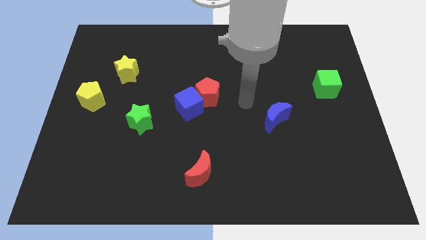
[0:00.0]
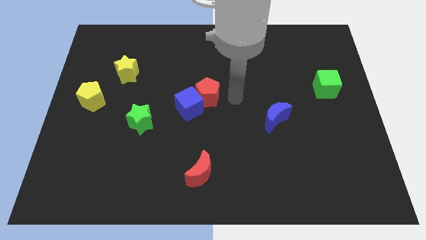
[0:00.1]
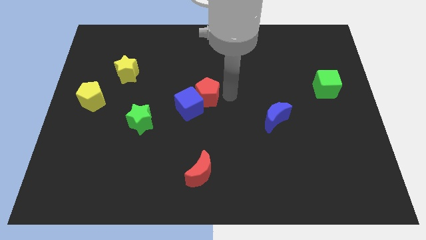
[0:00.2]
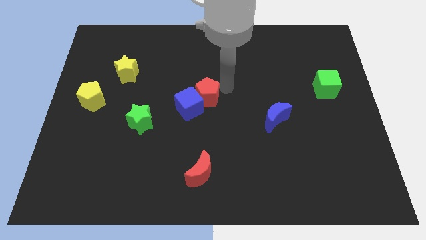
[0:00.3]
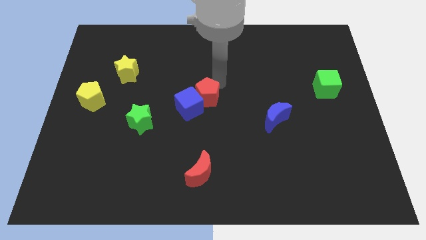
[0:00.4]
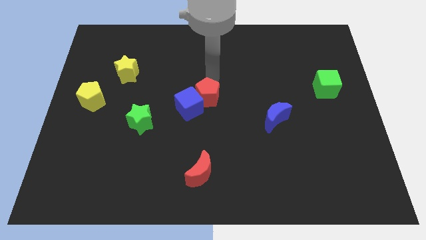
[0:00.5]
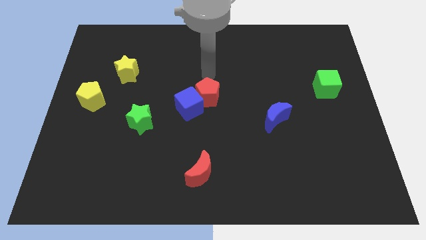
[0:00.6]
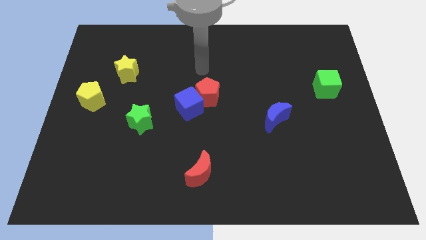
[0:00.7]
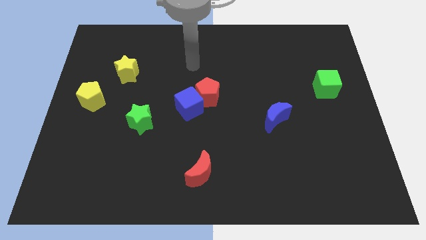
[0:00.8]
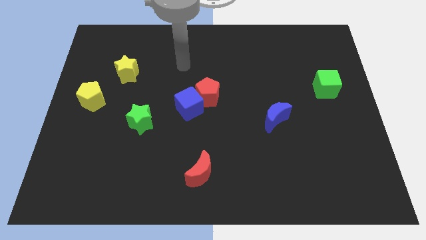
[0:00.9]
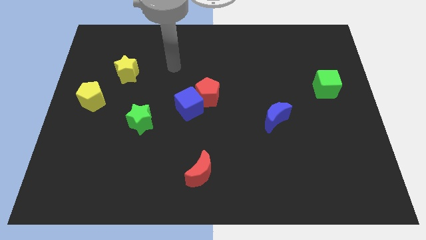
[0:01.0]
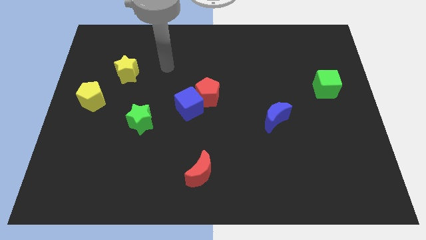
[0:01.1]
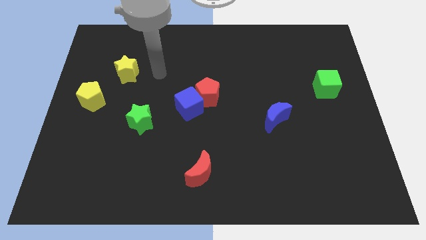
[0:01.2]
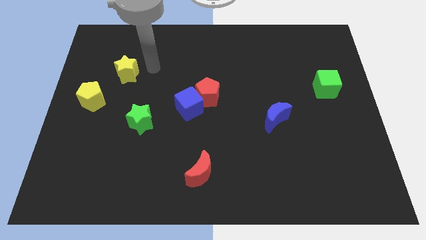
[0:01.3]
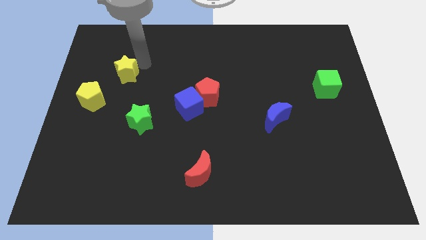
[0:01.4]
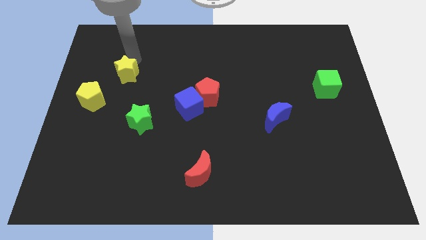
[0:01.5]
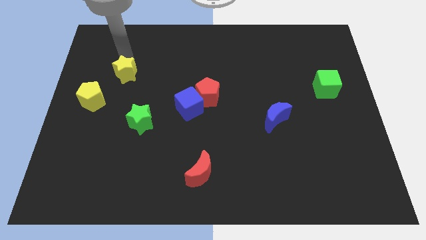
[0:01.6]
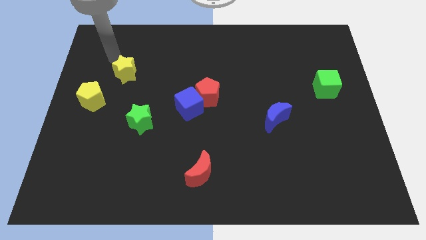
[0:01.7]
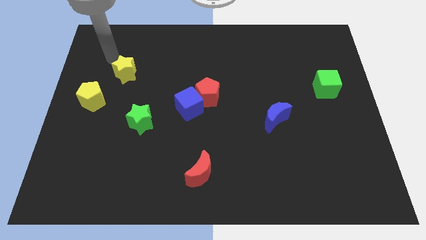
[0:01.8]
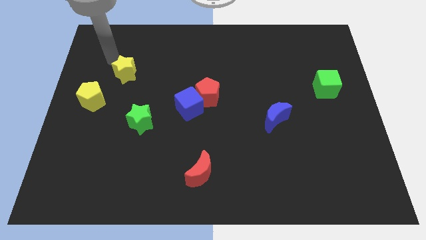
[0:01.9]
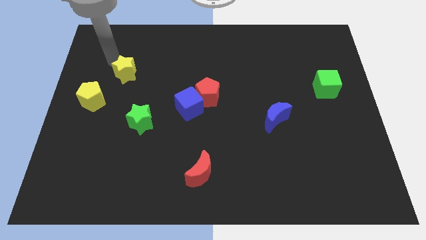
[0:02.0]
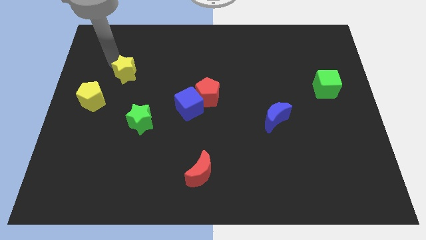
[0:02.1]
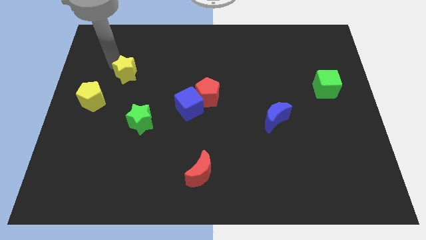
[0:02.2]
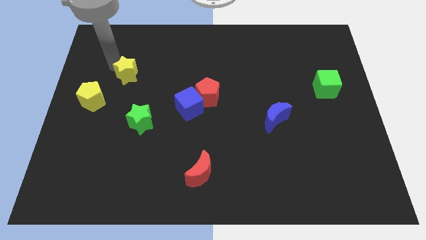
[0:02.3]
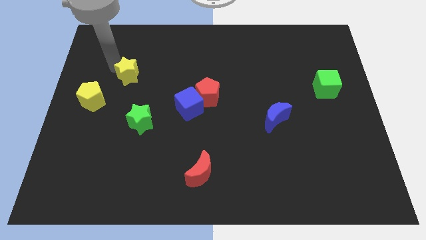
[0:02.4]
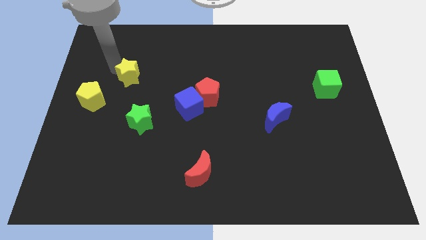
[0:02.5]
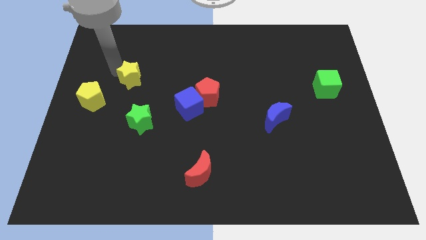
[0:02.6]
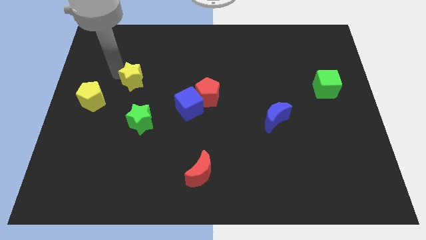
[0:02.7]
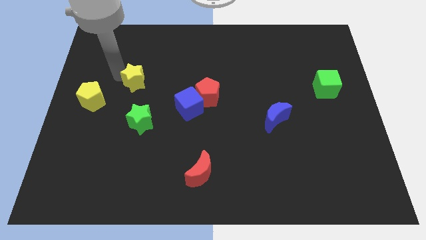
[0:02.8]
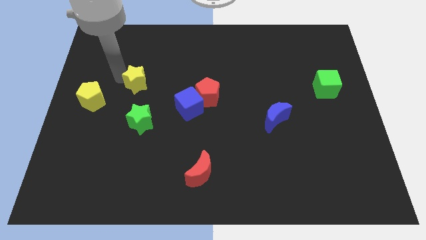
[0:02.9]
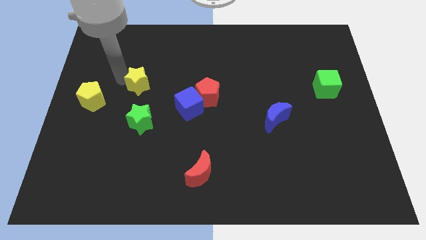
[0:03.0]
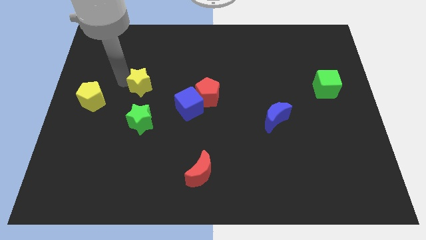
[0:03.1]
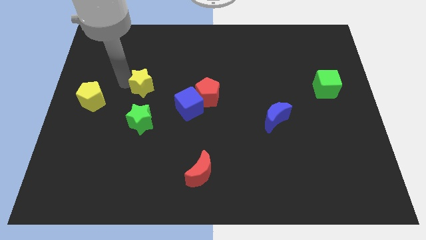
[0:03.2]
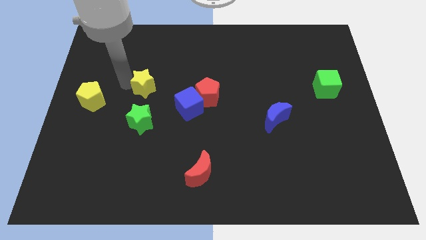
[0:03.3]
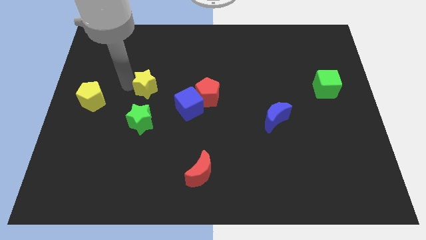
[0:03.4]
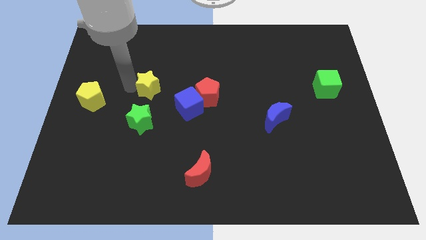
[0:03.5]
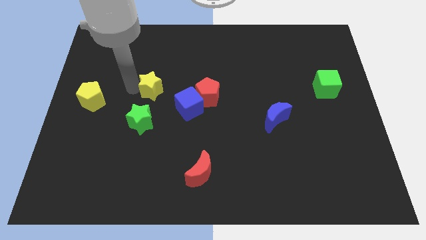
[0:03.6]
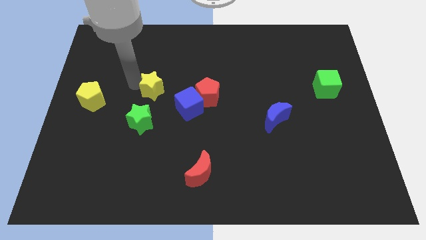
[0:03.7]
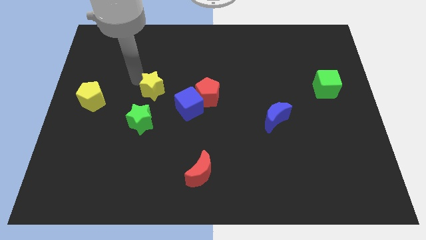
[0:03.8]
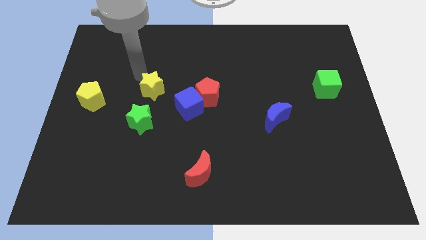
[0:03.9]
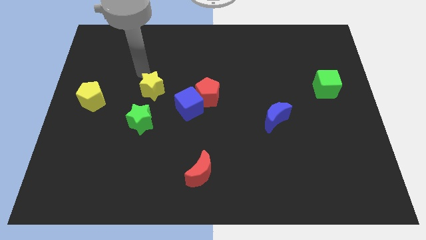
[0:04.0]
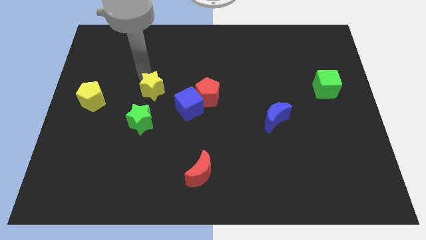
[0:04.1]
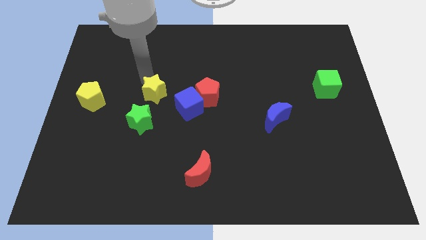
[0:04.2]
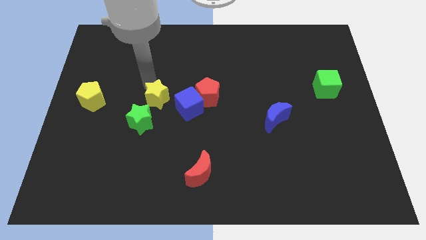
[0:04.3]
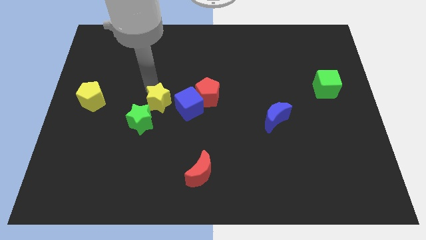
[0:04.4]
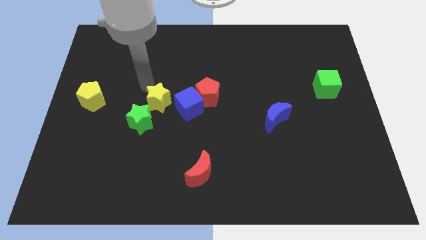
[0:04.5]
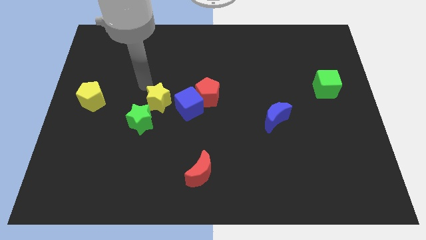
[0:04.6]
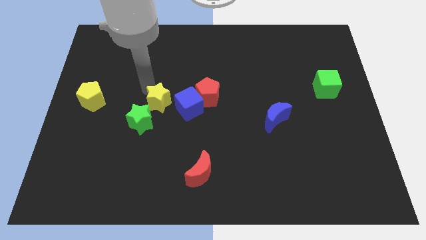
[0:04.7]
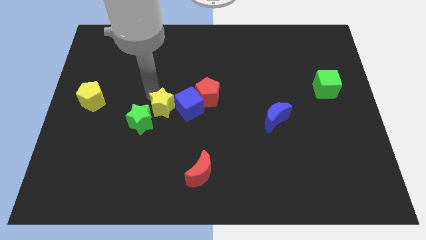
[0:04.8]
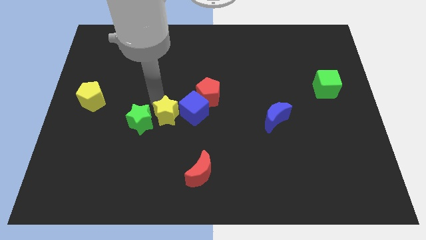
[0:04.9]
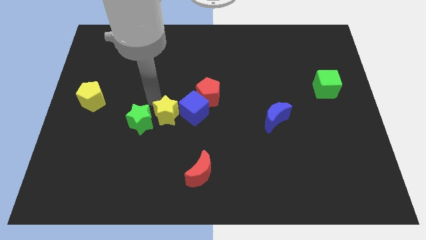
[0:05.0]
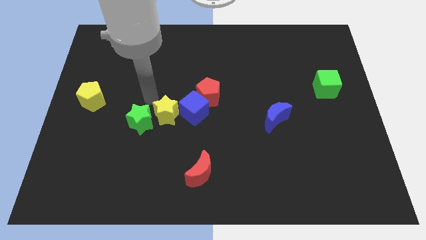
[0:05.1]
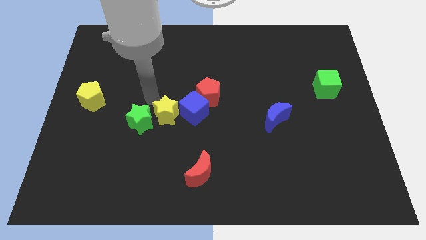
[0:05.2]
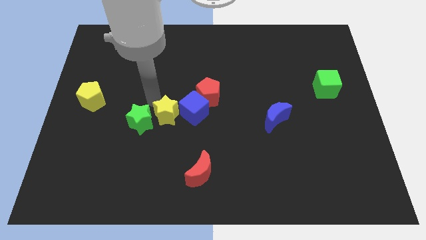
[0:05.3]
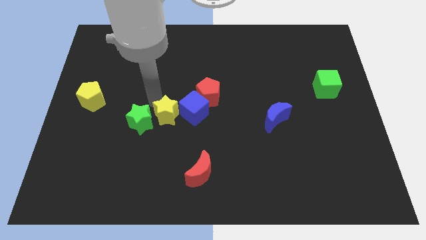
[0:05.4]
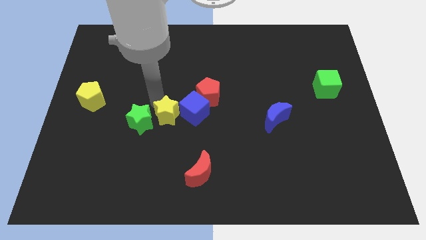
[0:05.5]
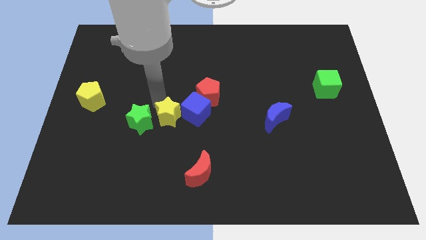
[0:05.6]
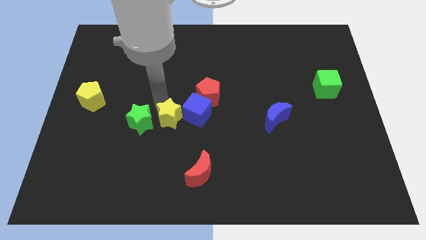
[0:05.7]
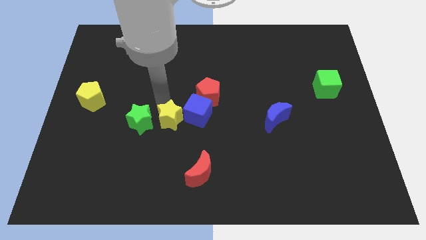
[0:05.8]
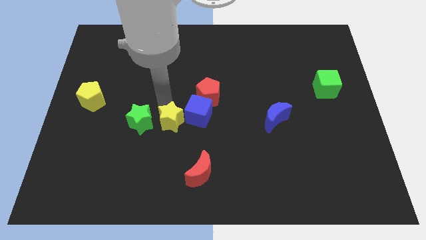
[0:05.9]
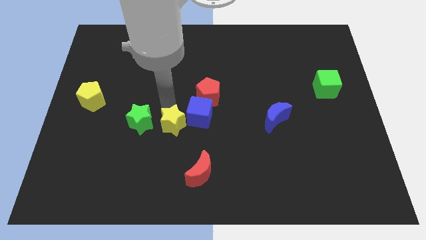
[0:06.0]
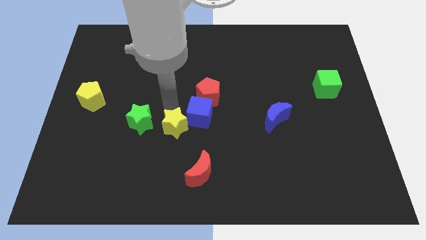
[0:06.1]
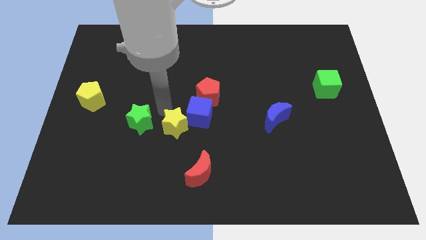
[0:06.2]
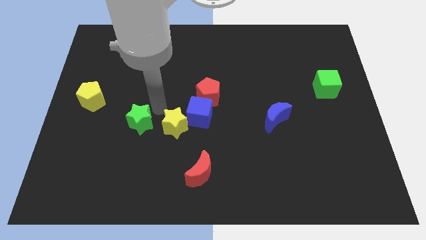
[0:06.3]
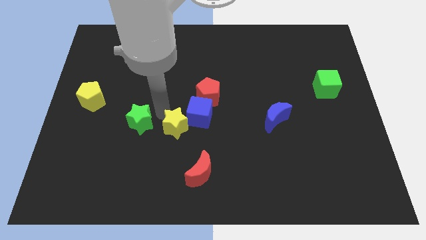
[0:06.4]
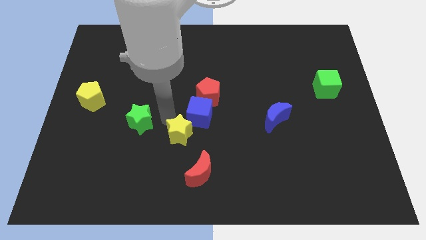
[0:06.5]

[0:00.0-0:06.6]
push the yellow star below the blue cube

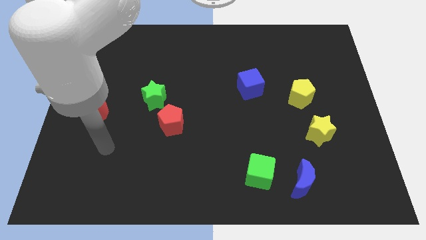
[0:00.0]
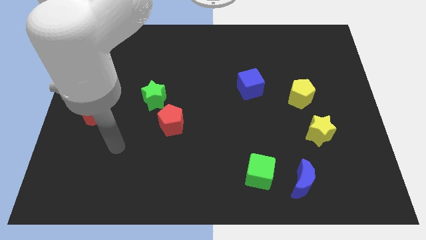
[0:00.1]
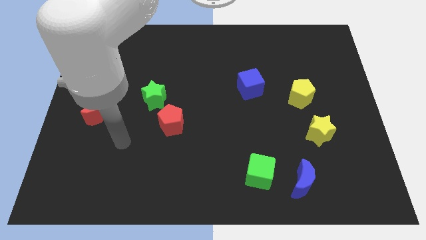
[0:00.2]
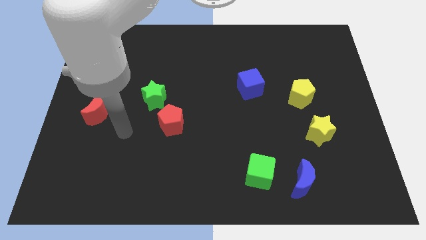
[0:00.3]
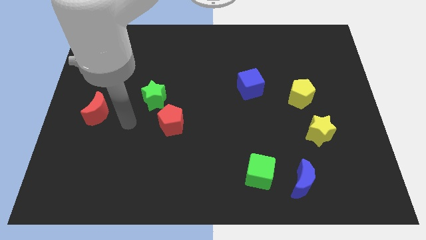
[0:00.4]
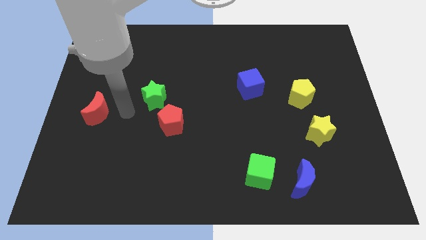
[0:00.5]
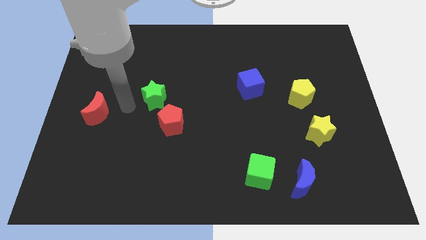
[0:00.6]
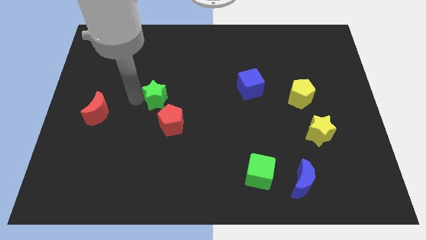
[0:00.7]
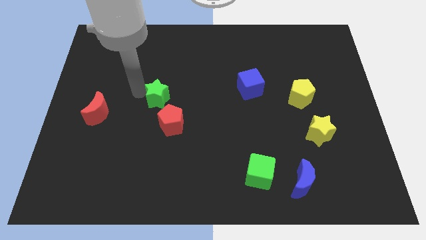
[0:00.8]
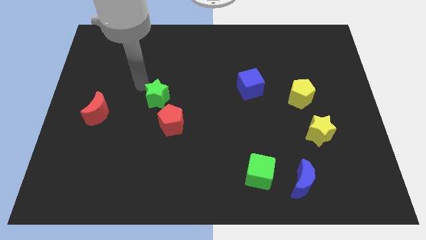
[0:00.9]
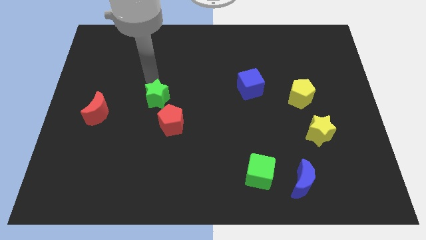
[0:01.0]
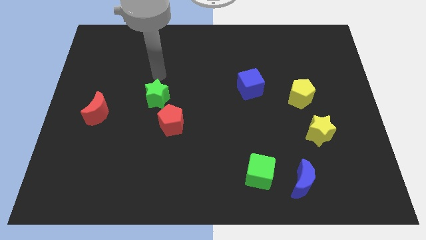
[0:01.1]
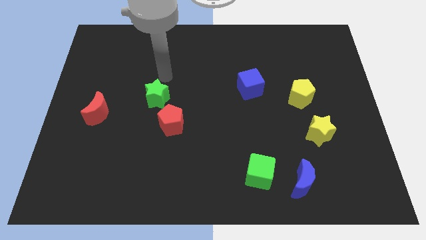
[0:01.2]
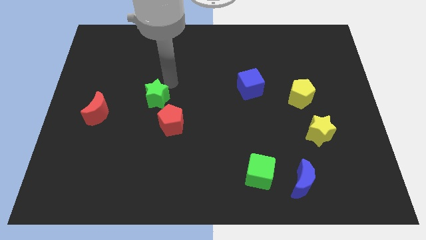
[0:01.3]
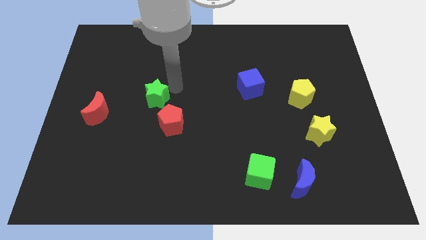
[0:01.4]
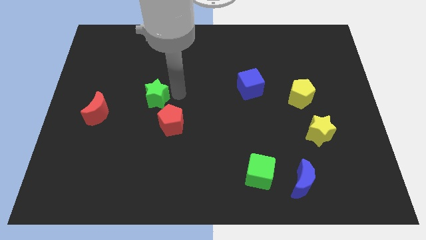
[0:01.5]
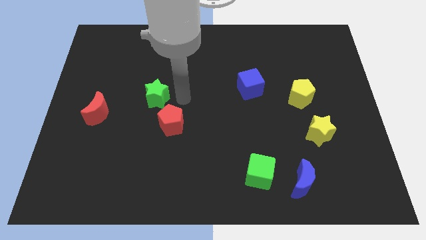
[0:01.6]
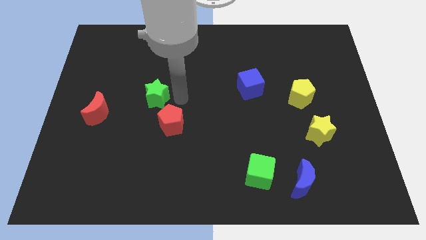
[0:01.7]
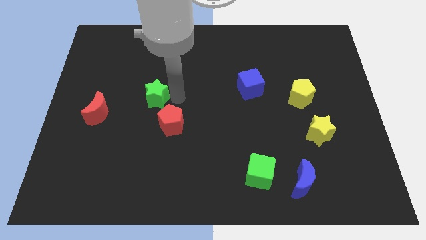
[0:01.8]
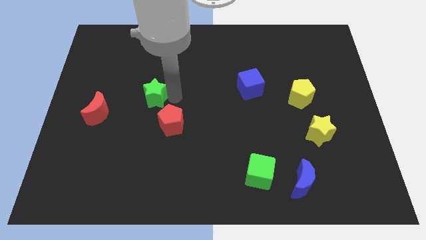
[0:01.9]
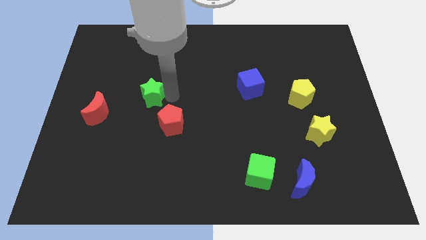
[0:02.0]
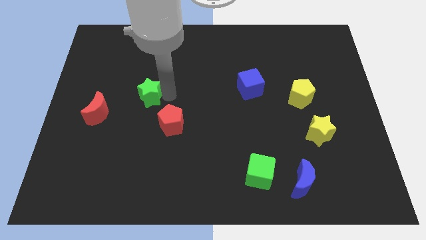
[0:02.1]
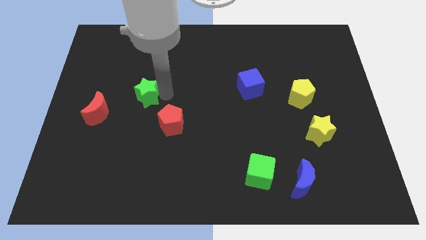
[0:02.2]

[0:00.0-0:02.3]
slide the green star to the top right side of the red moon
